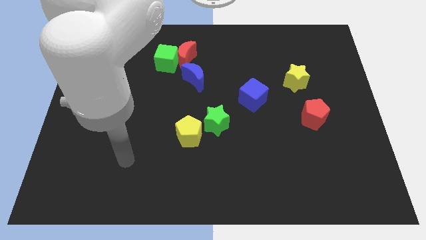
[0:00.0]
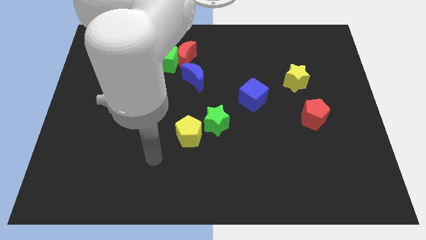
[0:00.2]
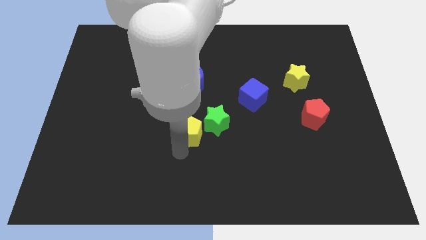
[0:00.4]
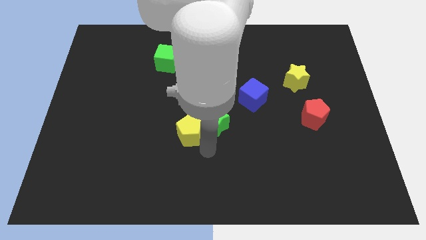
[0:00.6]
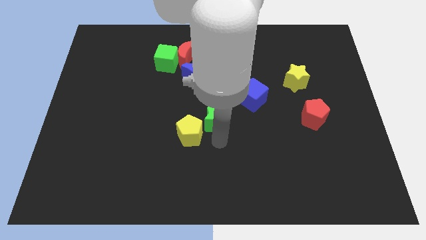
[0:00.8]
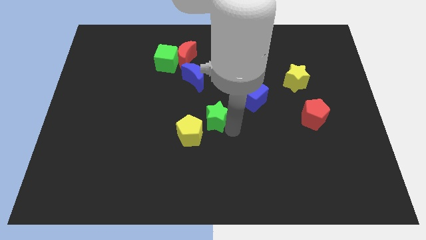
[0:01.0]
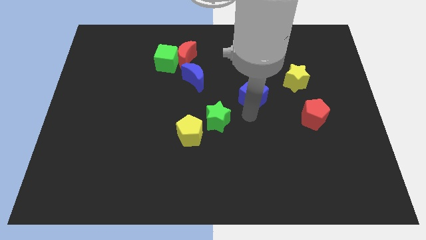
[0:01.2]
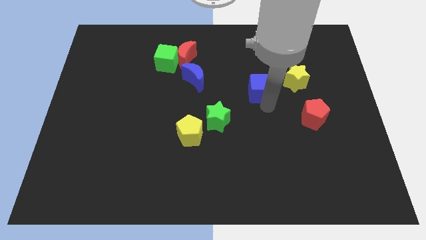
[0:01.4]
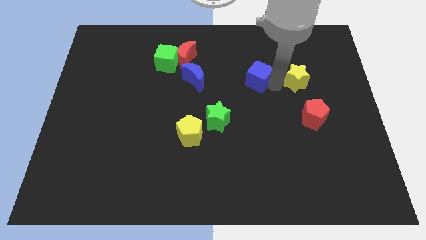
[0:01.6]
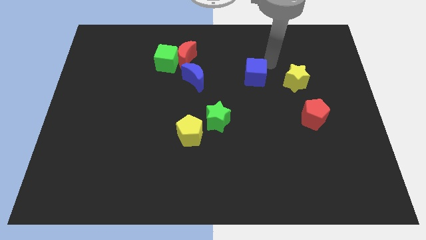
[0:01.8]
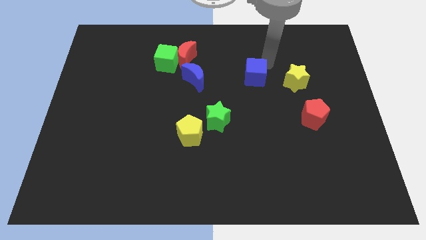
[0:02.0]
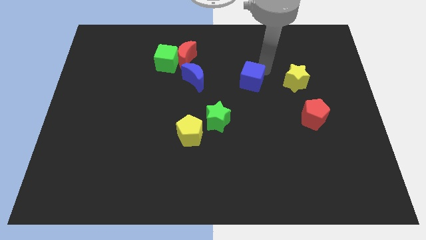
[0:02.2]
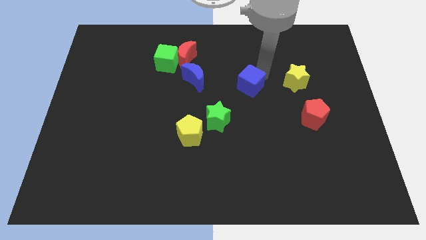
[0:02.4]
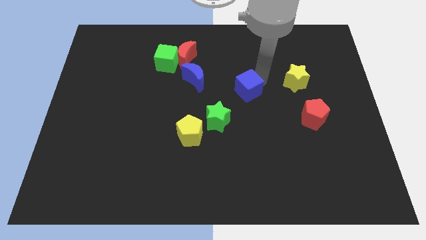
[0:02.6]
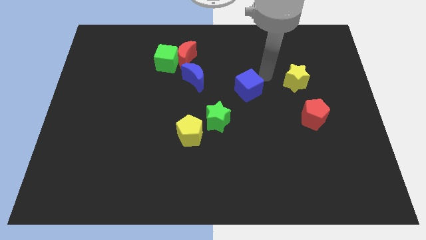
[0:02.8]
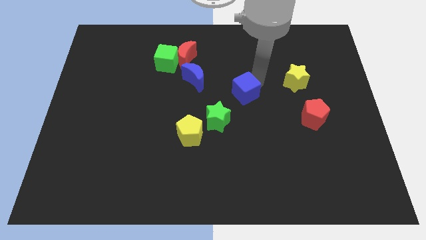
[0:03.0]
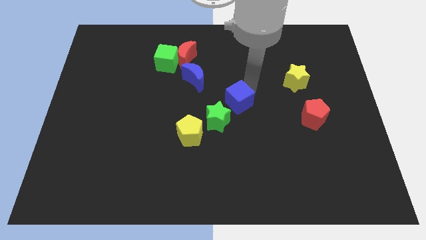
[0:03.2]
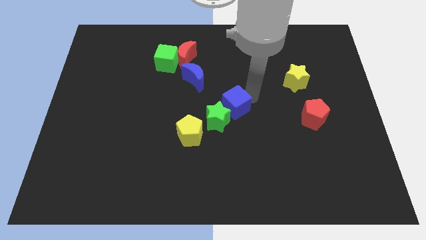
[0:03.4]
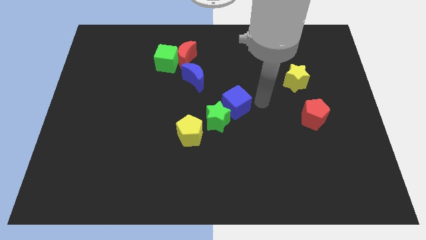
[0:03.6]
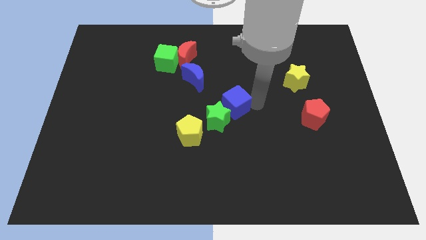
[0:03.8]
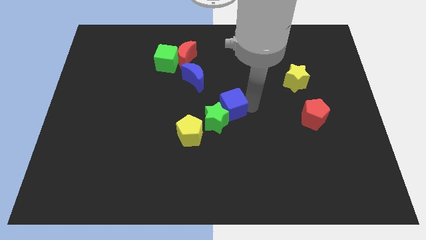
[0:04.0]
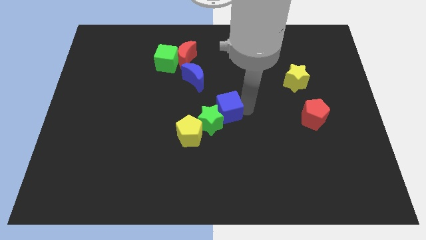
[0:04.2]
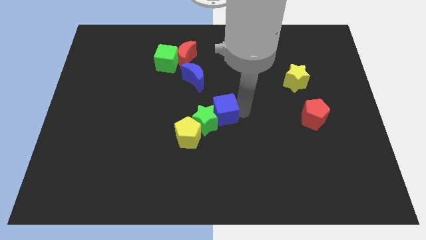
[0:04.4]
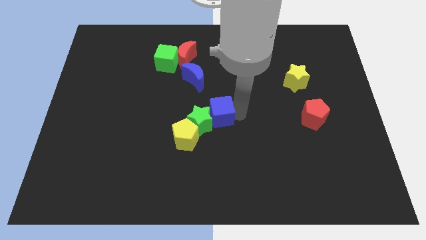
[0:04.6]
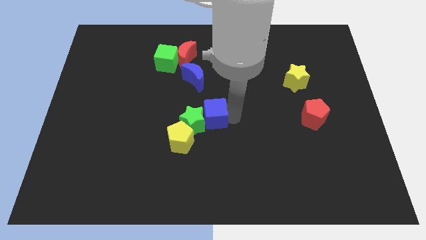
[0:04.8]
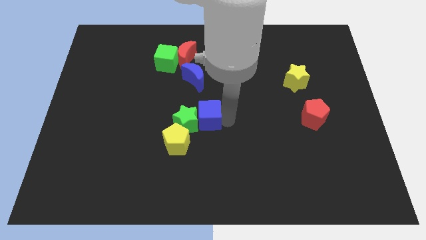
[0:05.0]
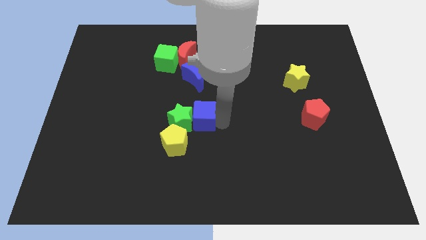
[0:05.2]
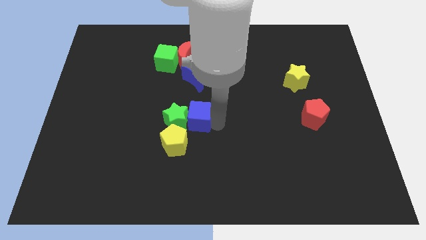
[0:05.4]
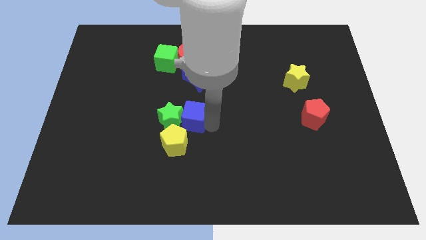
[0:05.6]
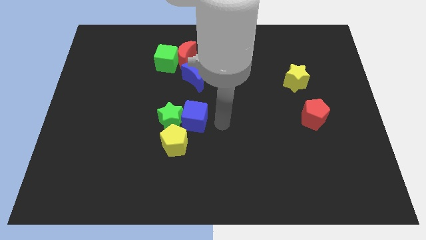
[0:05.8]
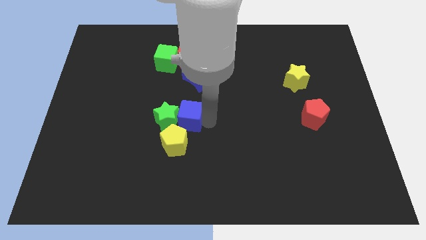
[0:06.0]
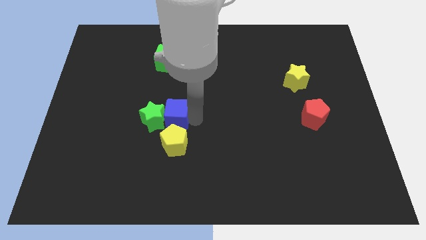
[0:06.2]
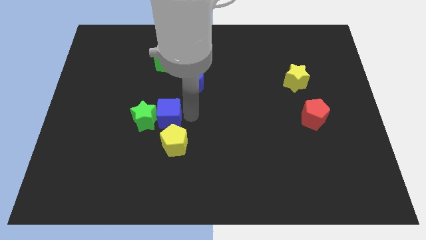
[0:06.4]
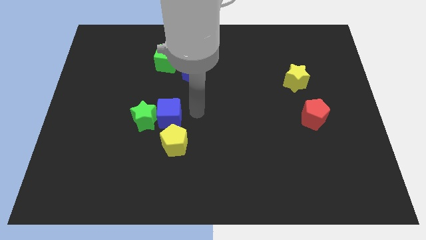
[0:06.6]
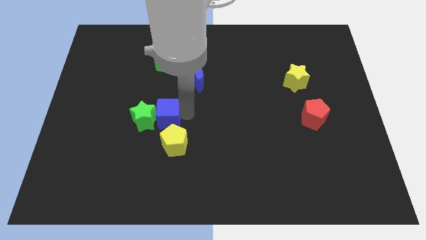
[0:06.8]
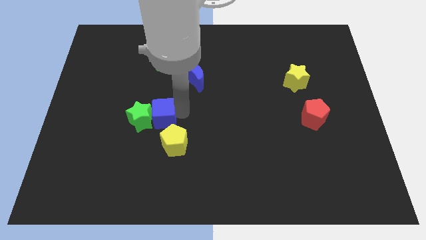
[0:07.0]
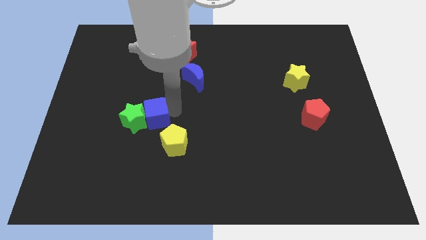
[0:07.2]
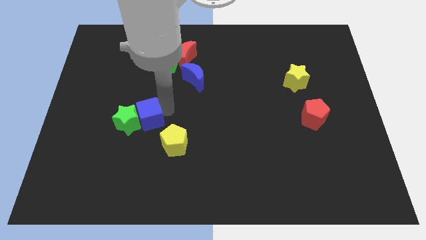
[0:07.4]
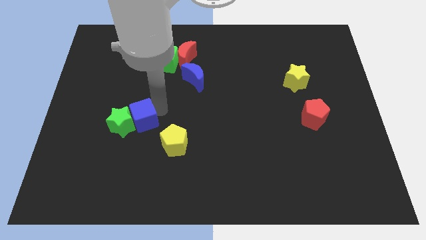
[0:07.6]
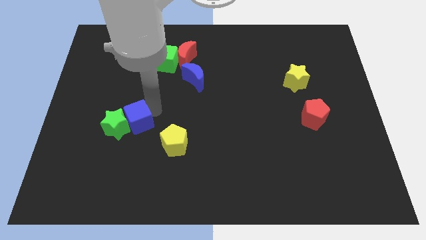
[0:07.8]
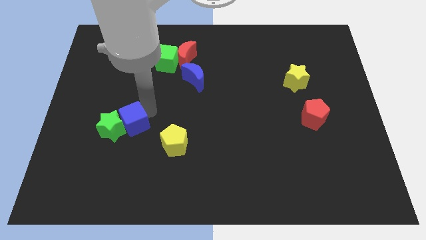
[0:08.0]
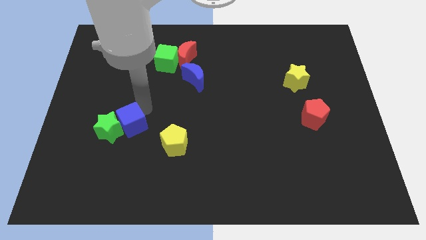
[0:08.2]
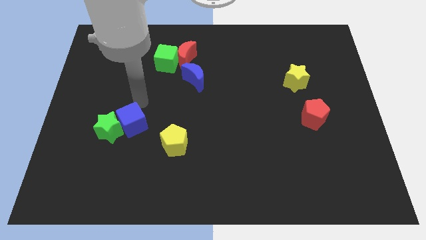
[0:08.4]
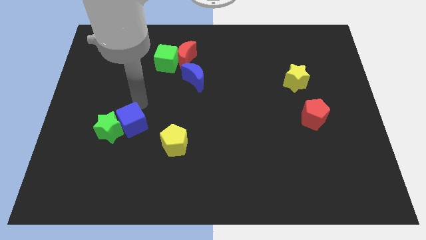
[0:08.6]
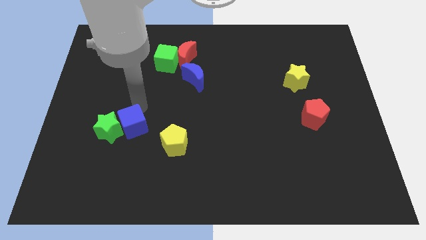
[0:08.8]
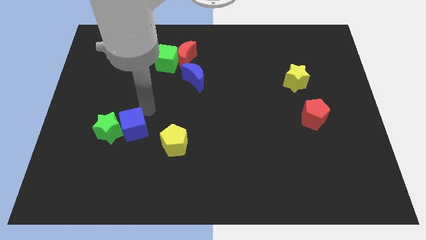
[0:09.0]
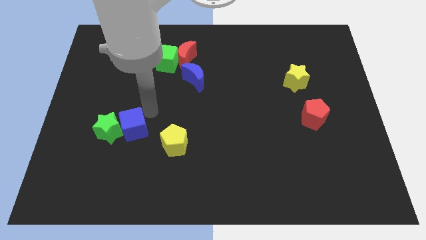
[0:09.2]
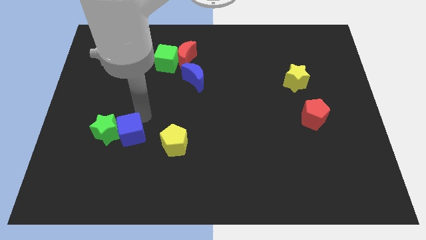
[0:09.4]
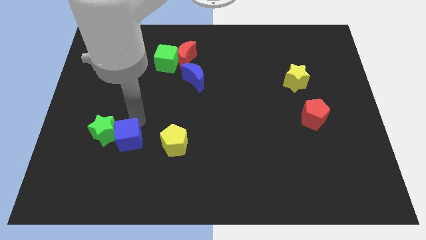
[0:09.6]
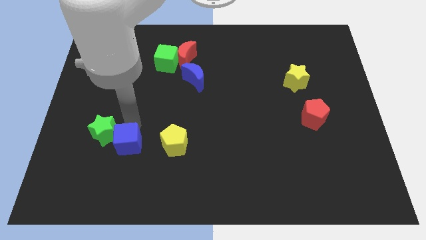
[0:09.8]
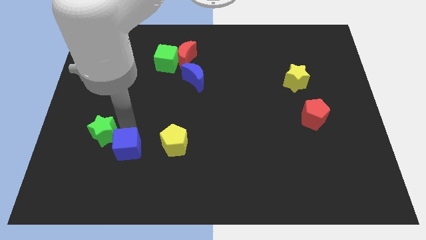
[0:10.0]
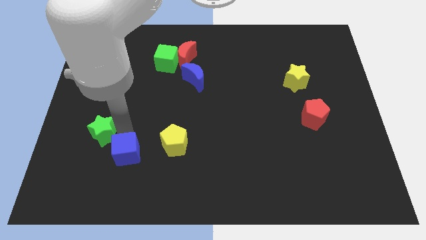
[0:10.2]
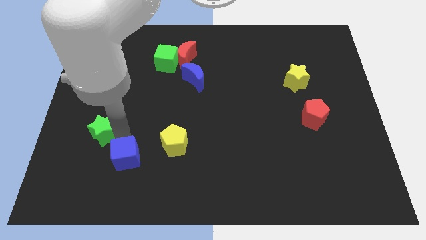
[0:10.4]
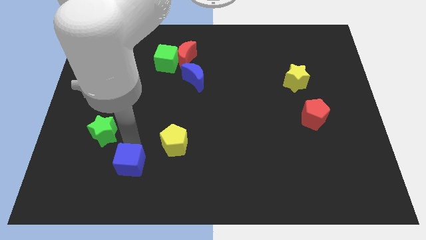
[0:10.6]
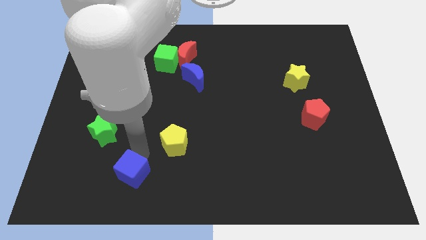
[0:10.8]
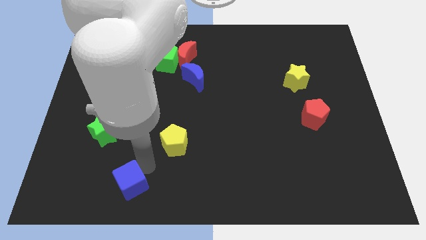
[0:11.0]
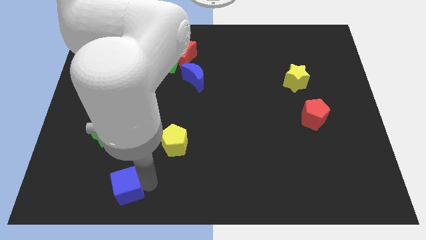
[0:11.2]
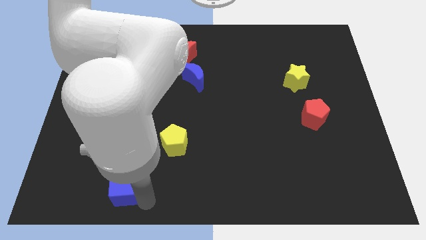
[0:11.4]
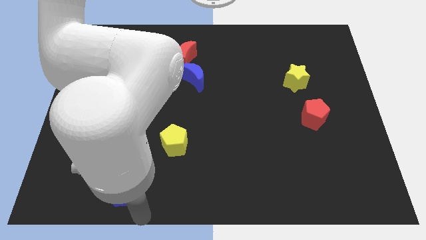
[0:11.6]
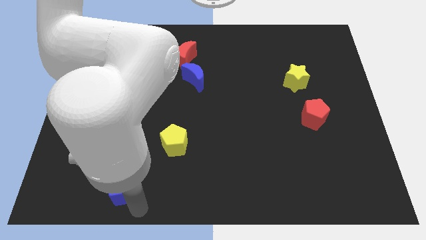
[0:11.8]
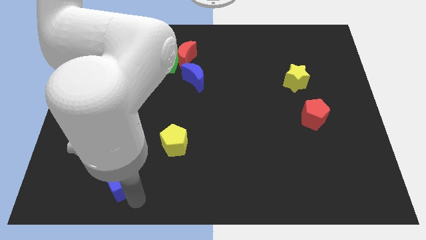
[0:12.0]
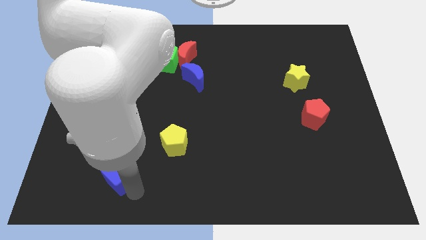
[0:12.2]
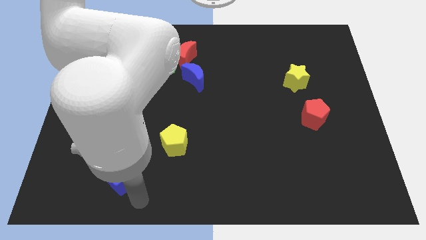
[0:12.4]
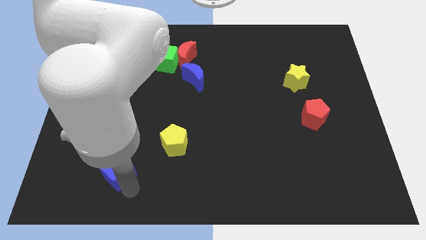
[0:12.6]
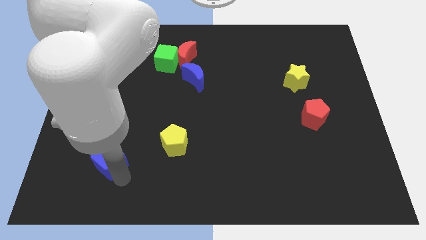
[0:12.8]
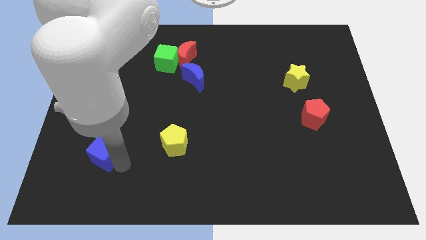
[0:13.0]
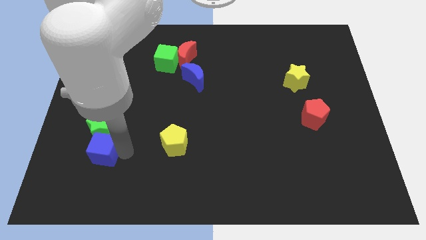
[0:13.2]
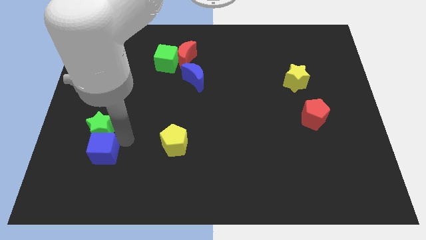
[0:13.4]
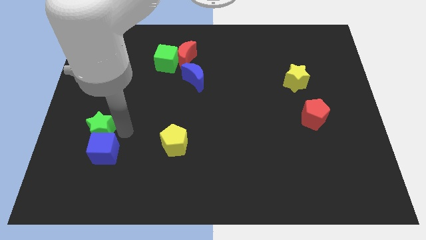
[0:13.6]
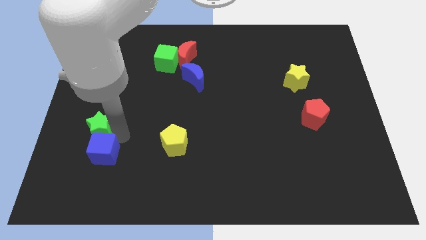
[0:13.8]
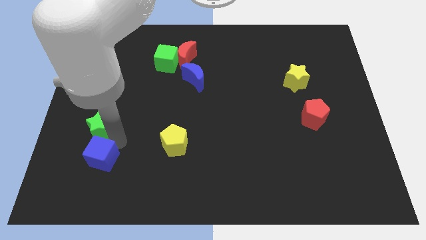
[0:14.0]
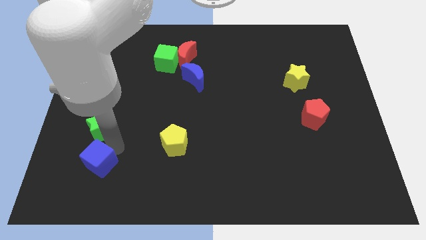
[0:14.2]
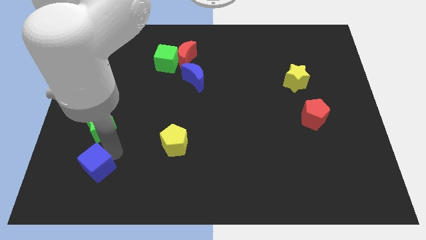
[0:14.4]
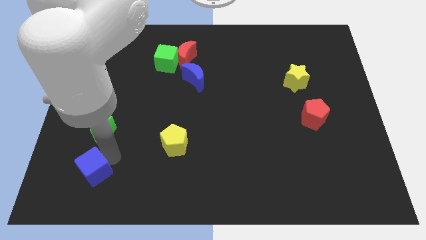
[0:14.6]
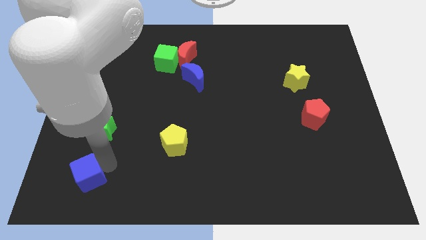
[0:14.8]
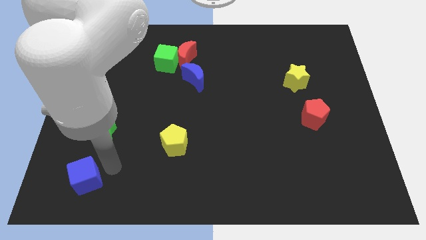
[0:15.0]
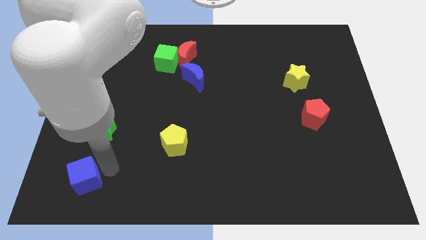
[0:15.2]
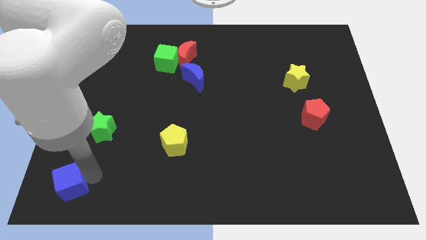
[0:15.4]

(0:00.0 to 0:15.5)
slide the blue cube to the bottom left corner
